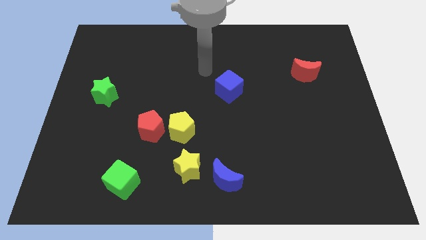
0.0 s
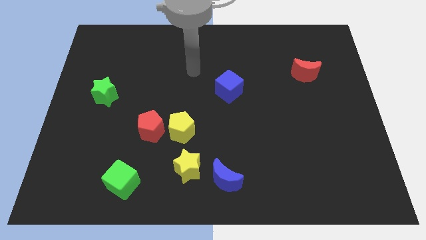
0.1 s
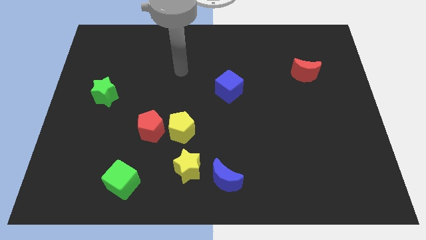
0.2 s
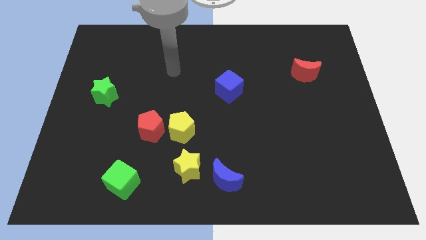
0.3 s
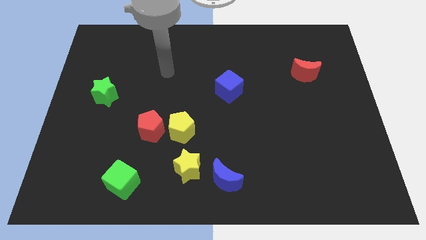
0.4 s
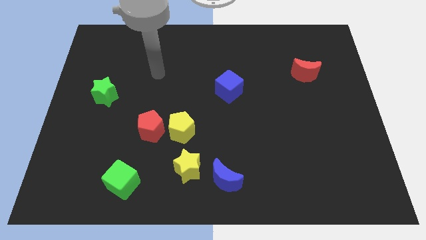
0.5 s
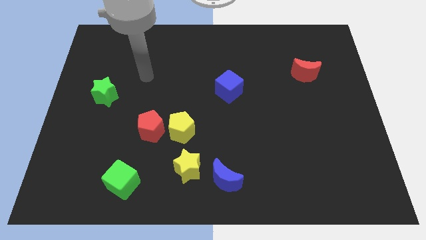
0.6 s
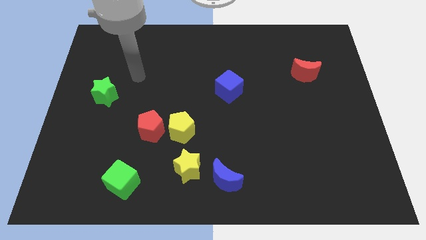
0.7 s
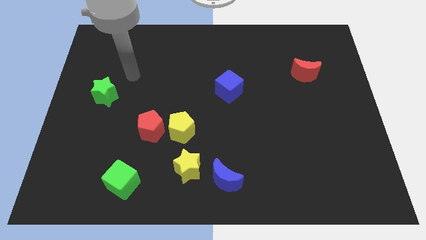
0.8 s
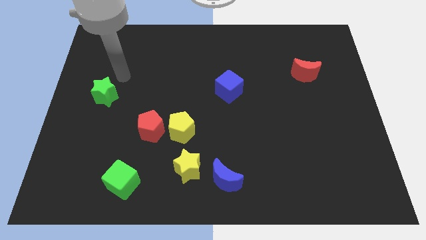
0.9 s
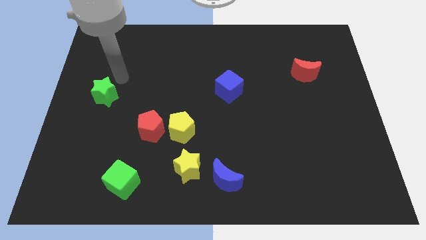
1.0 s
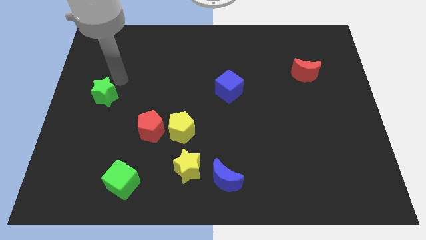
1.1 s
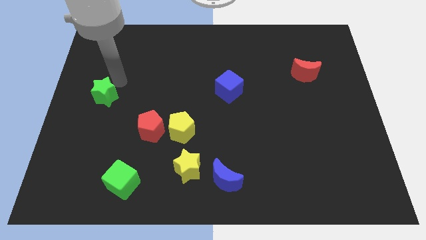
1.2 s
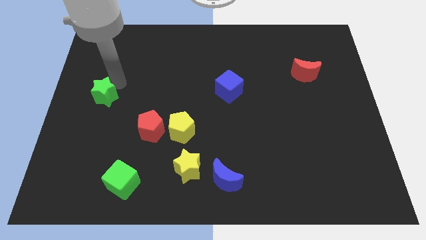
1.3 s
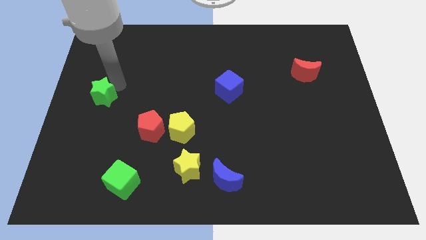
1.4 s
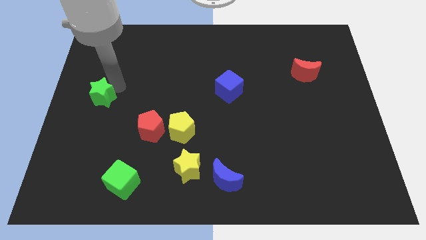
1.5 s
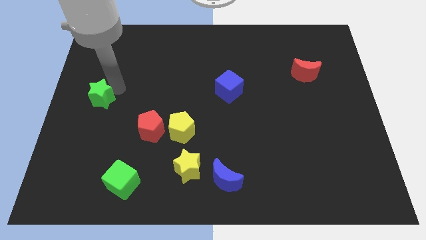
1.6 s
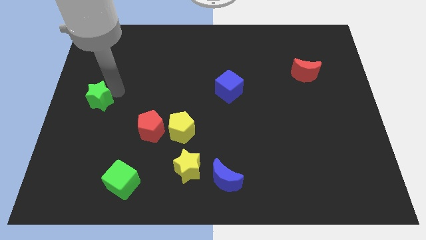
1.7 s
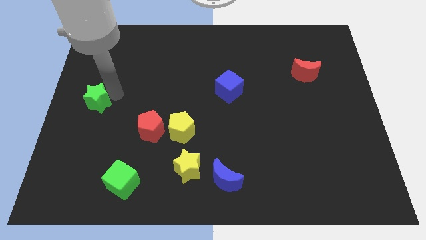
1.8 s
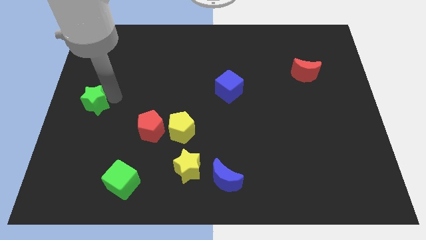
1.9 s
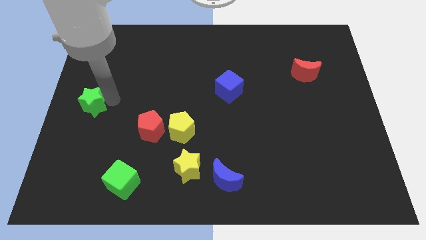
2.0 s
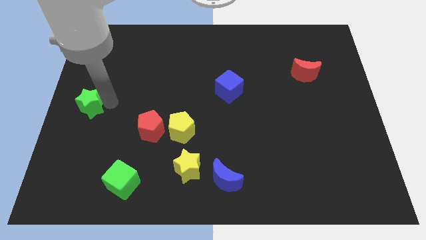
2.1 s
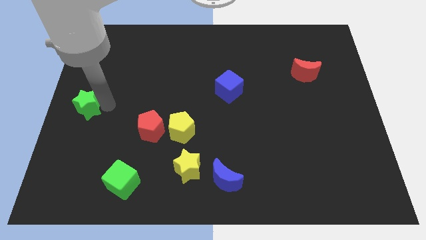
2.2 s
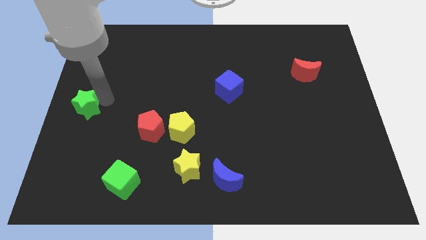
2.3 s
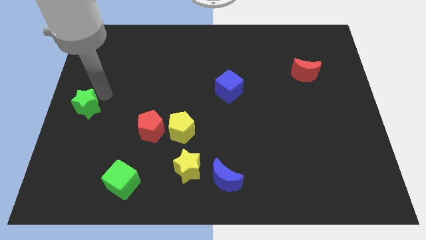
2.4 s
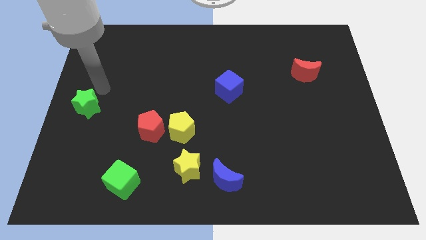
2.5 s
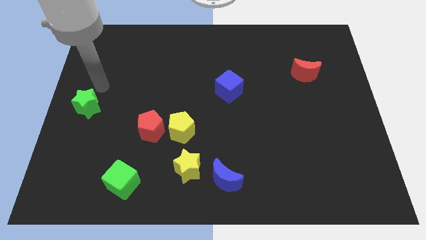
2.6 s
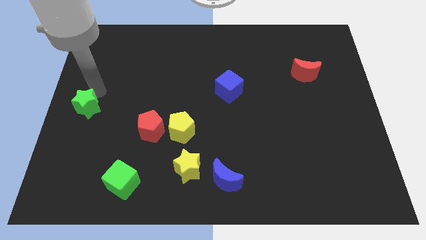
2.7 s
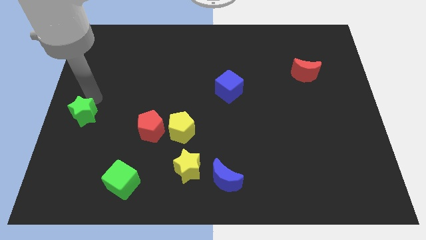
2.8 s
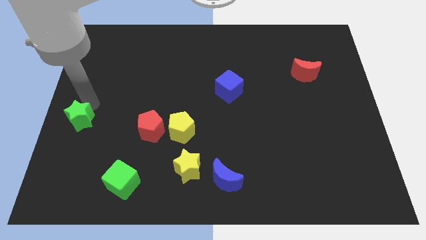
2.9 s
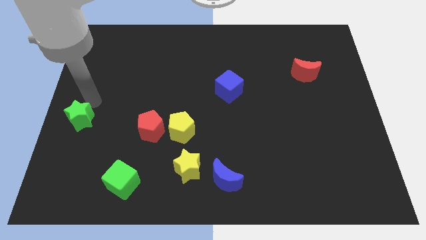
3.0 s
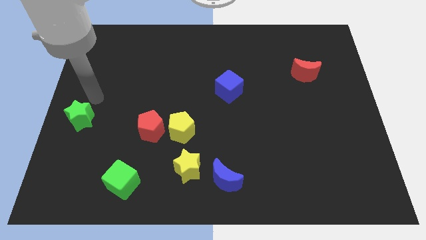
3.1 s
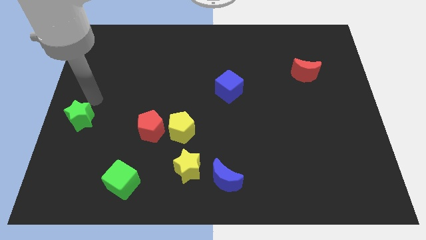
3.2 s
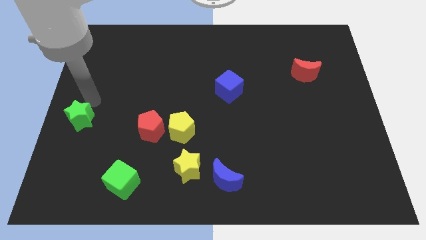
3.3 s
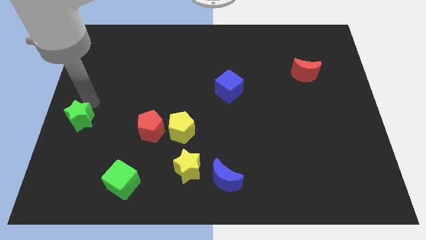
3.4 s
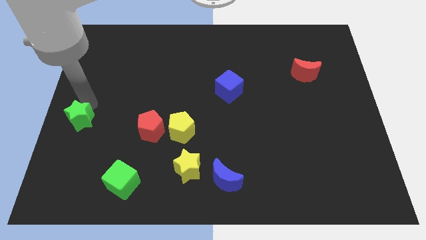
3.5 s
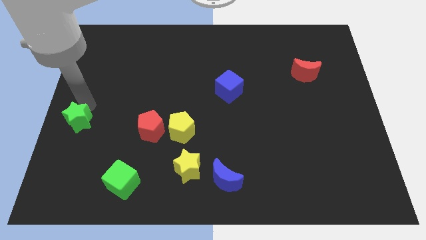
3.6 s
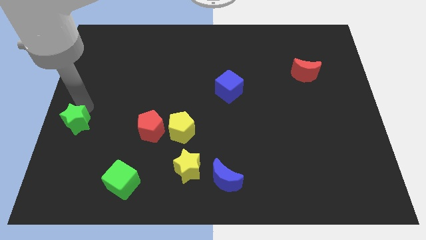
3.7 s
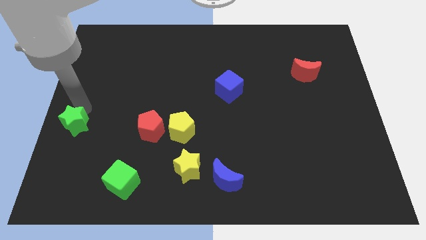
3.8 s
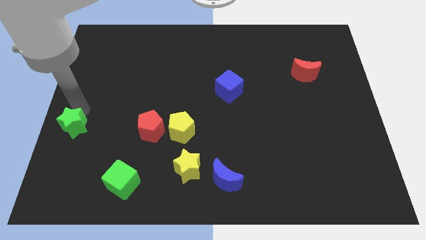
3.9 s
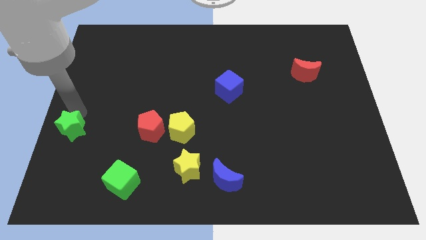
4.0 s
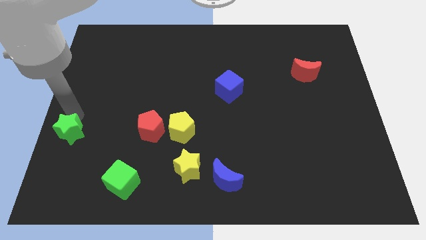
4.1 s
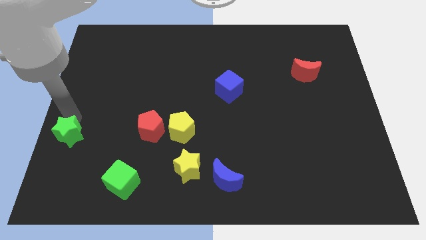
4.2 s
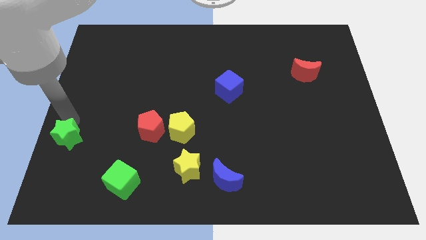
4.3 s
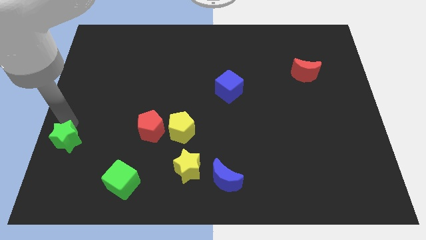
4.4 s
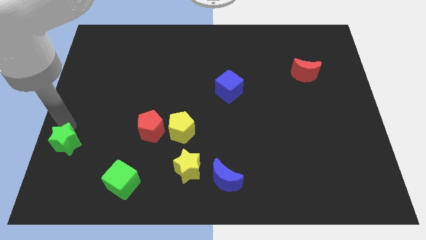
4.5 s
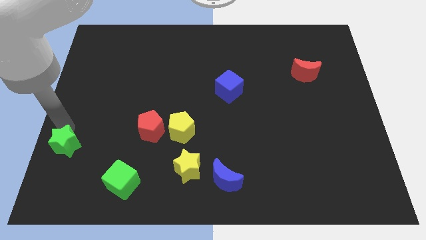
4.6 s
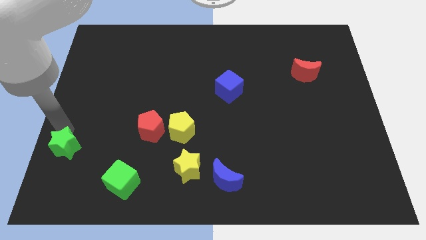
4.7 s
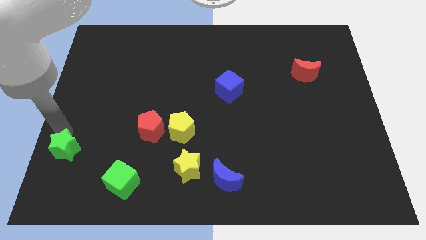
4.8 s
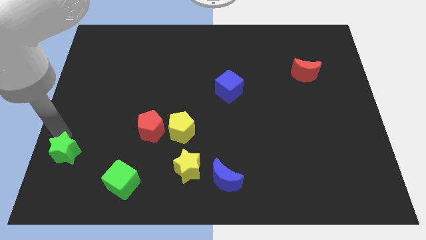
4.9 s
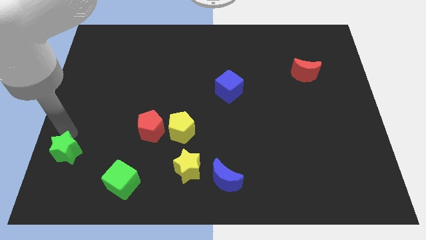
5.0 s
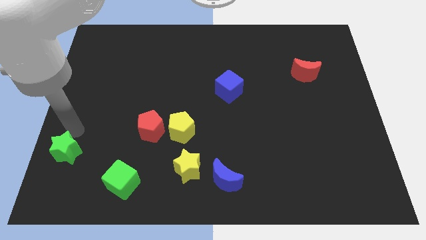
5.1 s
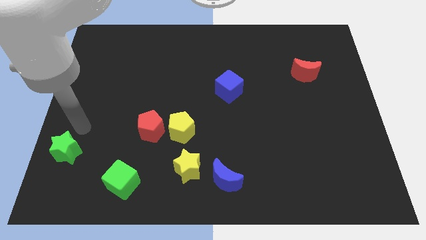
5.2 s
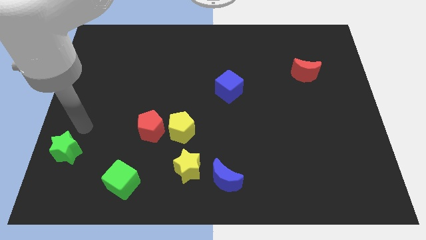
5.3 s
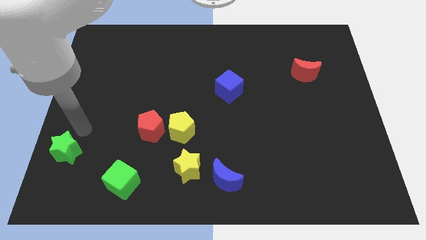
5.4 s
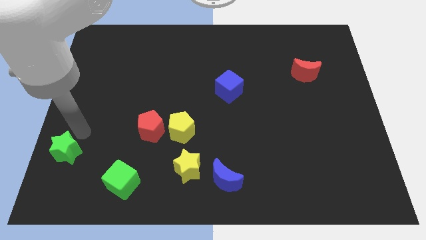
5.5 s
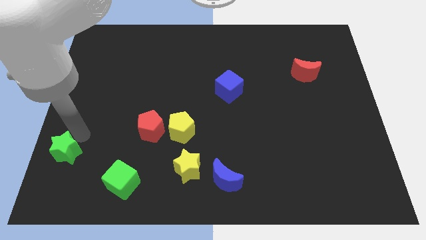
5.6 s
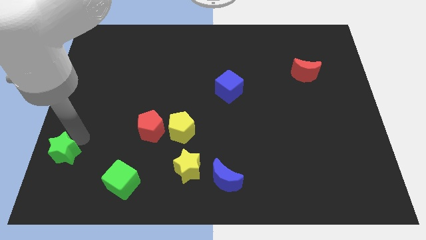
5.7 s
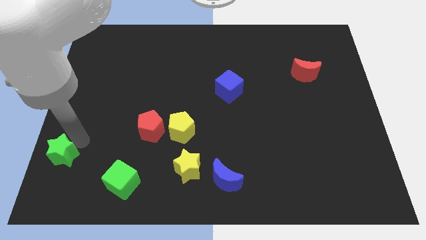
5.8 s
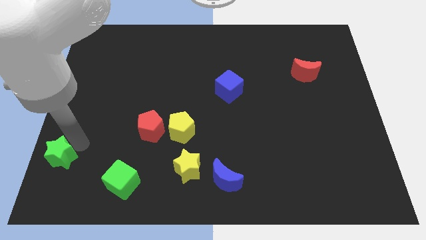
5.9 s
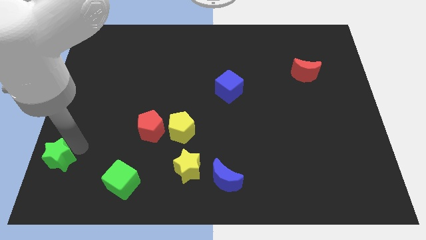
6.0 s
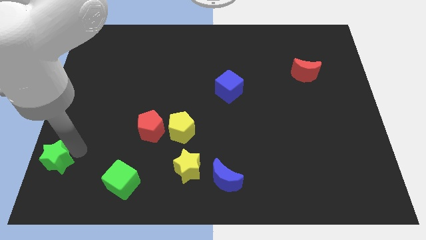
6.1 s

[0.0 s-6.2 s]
slide the green star to the bottom left corner
